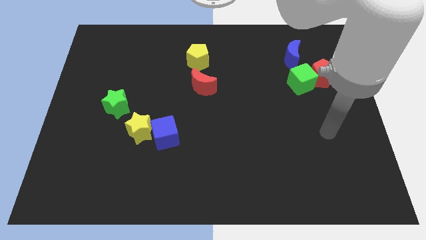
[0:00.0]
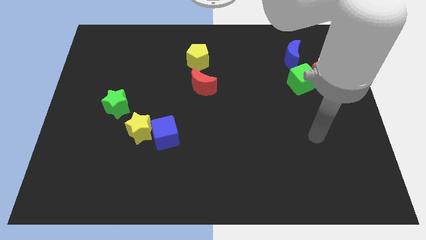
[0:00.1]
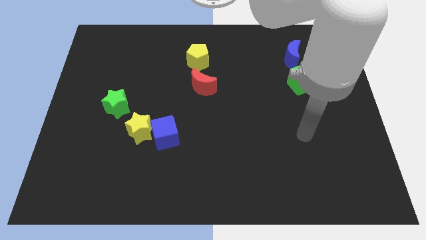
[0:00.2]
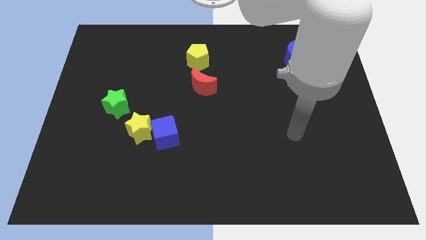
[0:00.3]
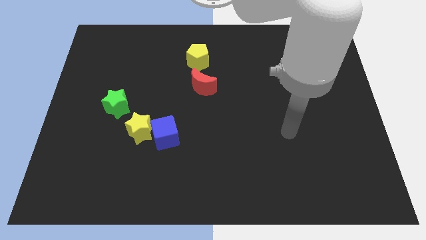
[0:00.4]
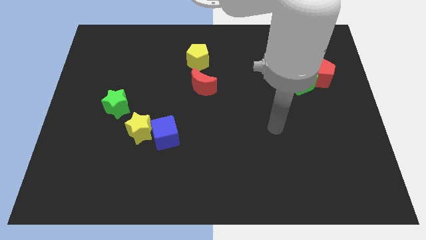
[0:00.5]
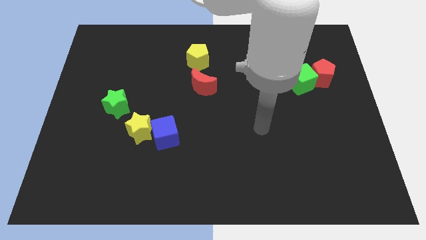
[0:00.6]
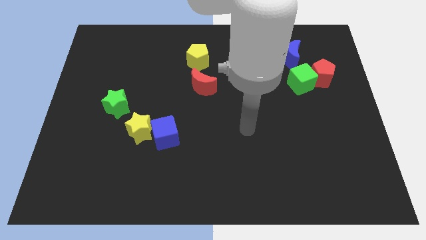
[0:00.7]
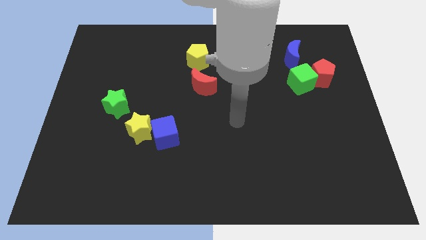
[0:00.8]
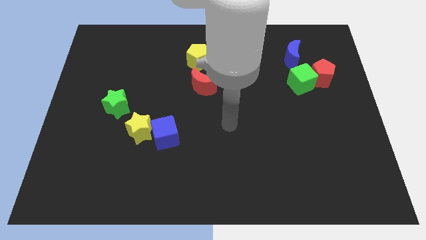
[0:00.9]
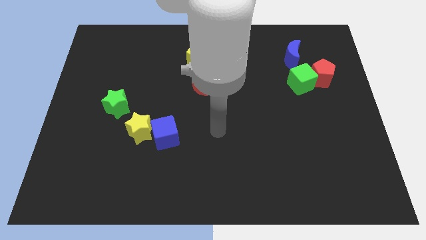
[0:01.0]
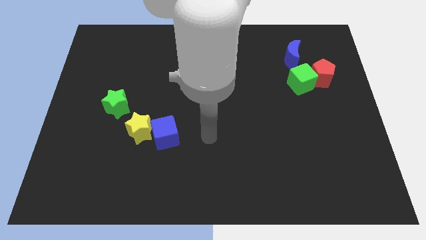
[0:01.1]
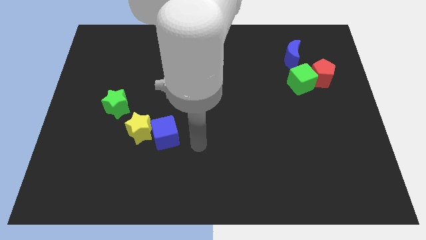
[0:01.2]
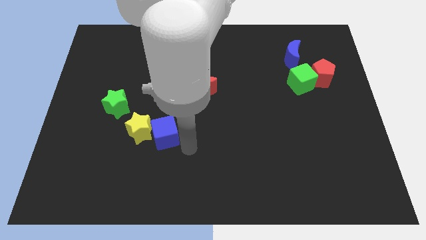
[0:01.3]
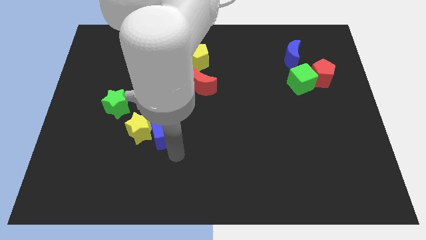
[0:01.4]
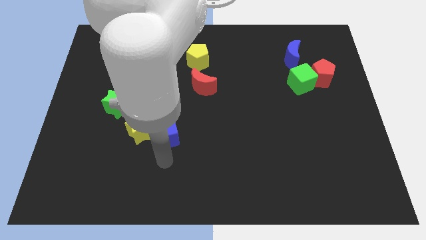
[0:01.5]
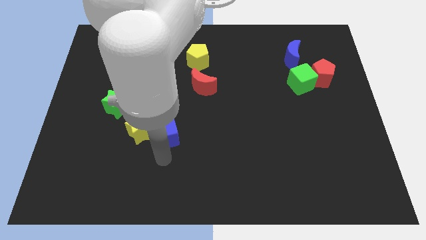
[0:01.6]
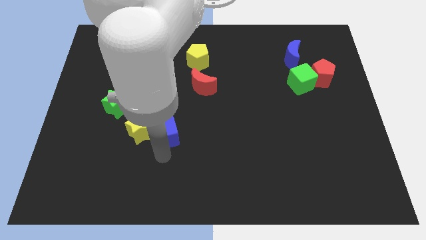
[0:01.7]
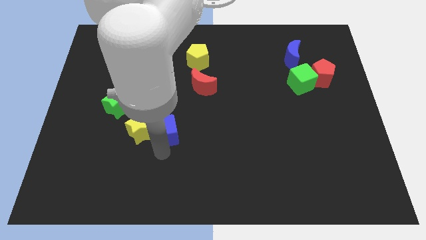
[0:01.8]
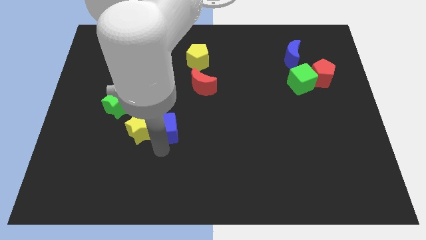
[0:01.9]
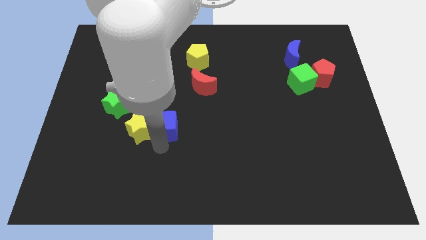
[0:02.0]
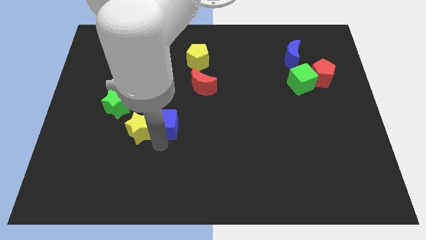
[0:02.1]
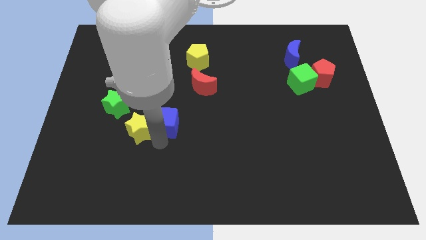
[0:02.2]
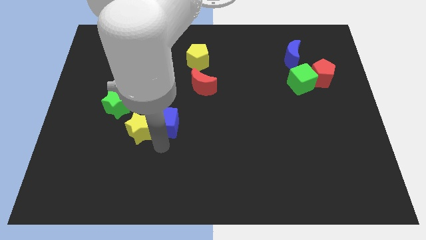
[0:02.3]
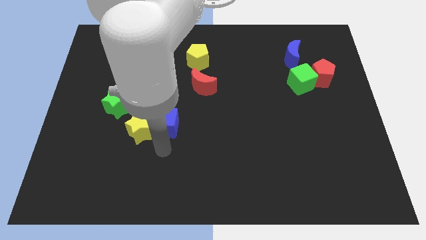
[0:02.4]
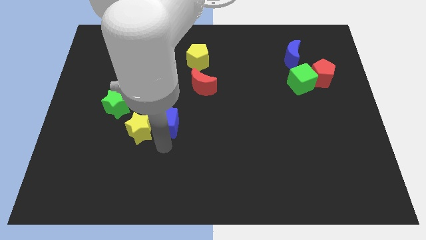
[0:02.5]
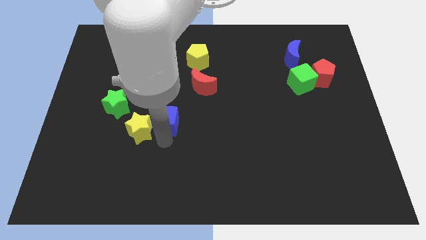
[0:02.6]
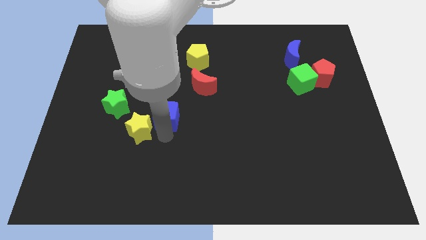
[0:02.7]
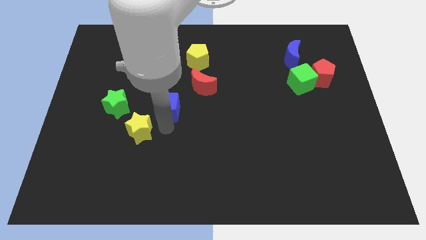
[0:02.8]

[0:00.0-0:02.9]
slightly slide the blue cube upwards

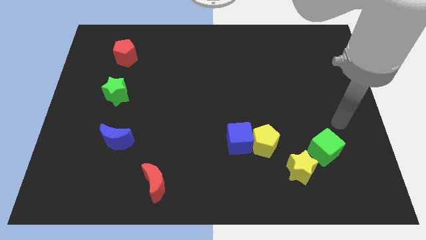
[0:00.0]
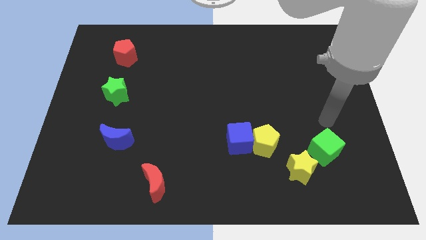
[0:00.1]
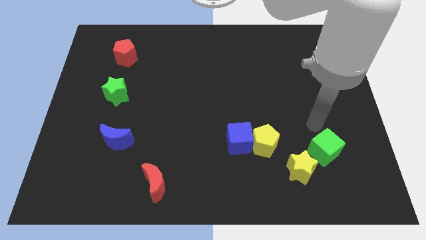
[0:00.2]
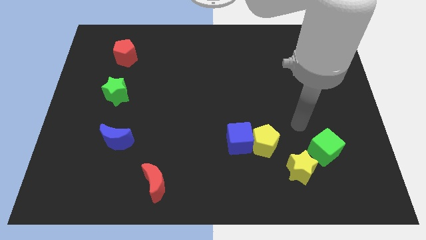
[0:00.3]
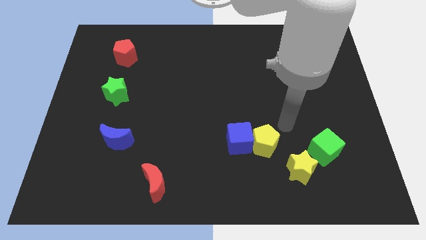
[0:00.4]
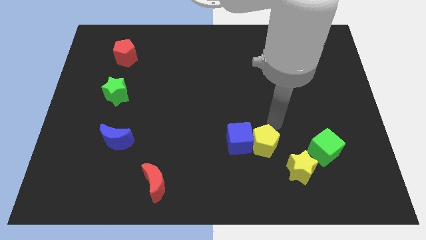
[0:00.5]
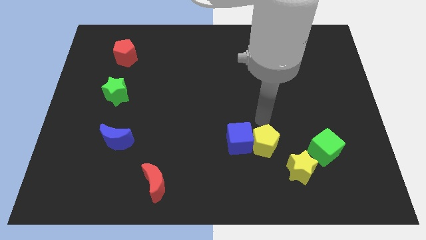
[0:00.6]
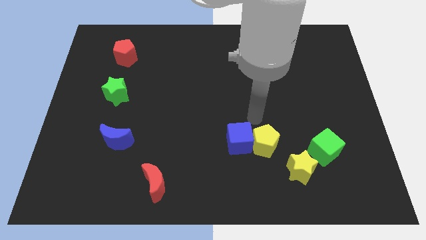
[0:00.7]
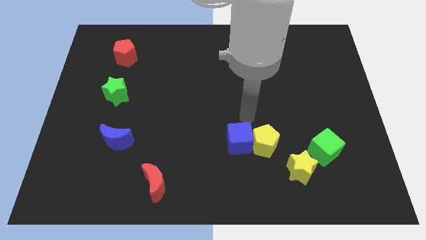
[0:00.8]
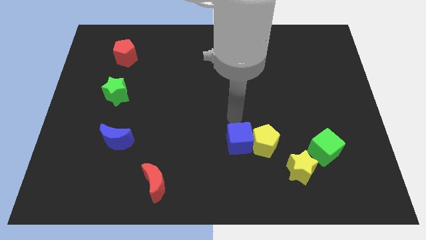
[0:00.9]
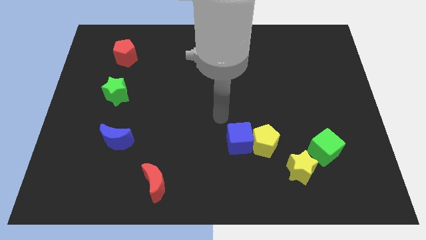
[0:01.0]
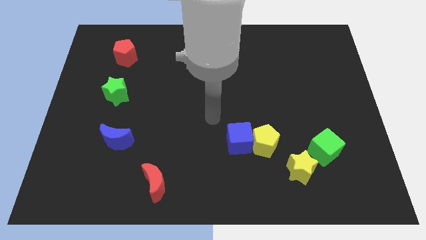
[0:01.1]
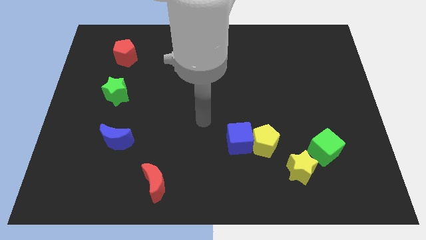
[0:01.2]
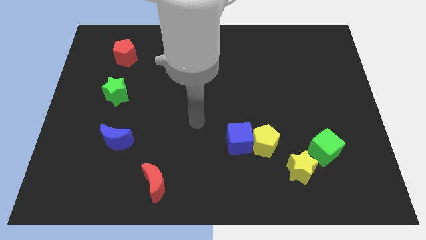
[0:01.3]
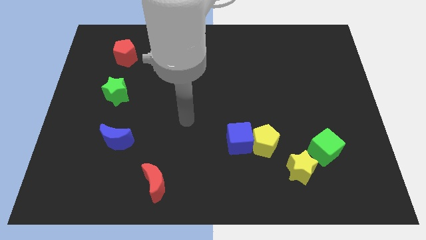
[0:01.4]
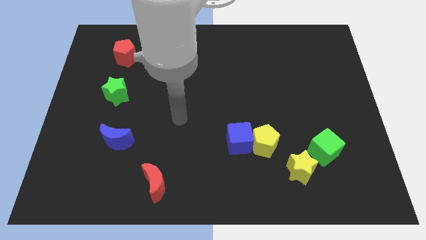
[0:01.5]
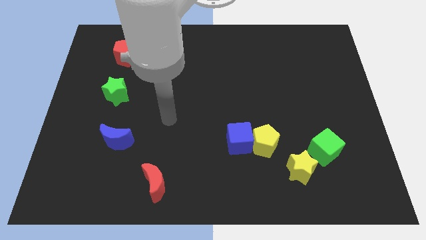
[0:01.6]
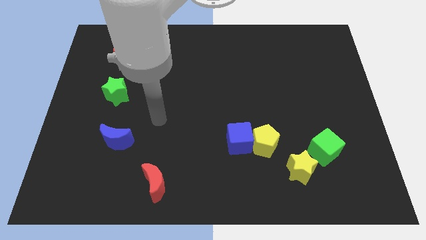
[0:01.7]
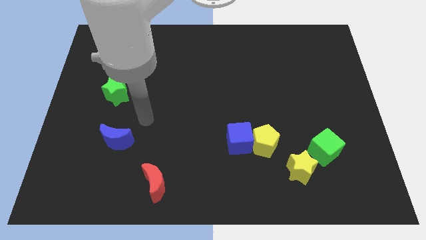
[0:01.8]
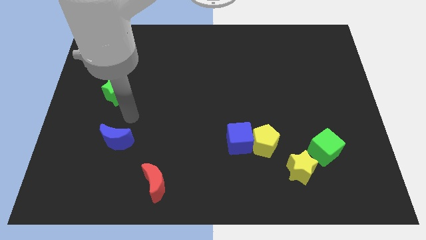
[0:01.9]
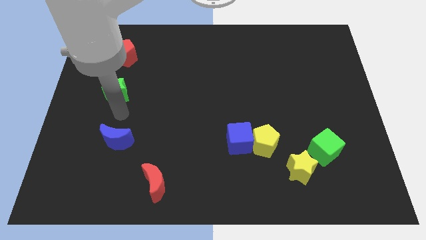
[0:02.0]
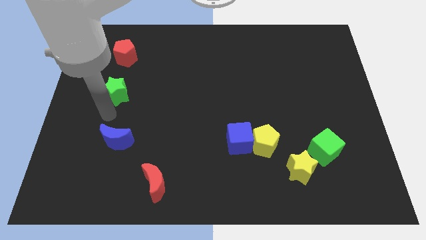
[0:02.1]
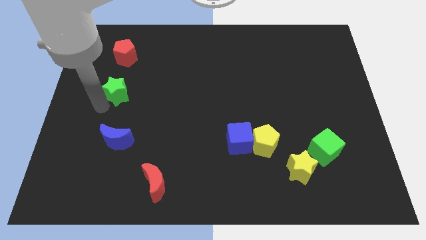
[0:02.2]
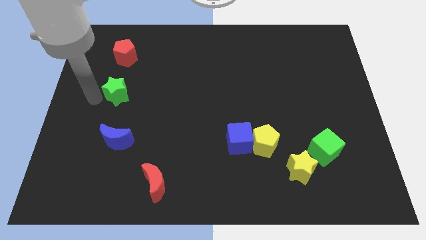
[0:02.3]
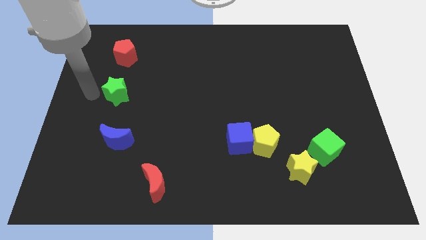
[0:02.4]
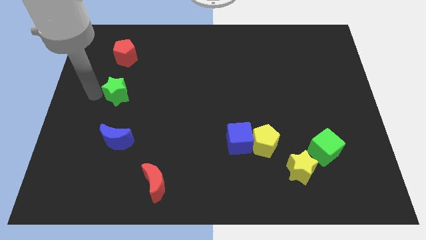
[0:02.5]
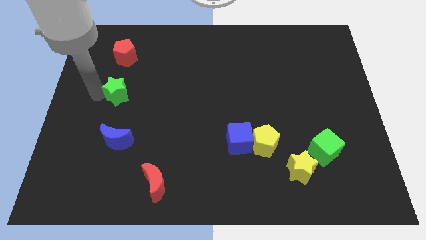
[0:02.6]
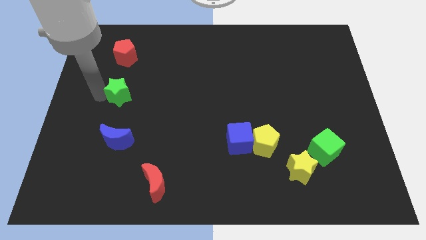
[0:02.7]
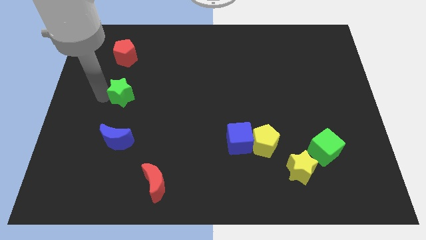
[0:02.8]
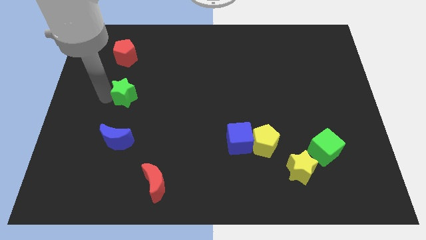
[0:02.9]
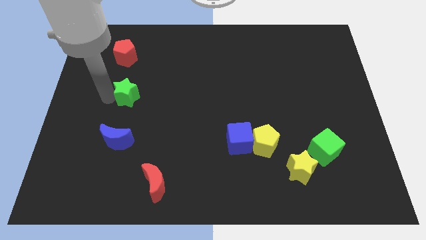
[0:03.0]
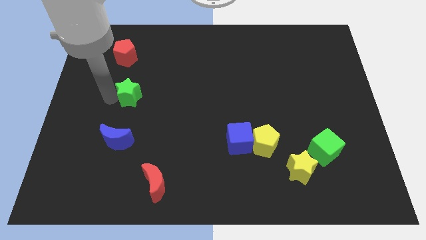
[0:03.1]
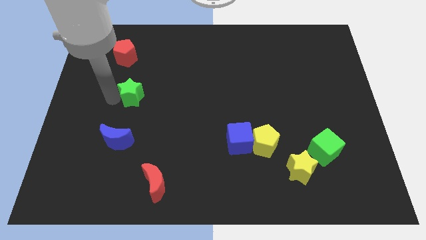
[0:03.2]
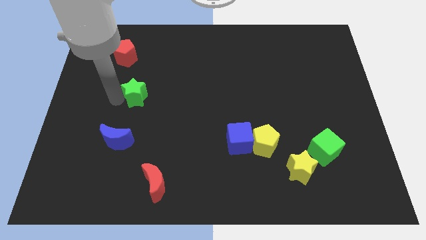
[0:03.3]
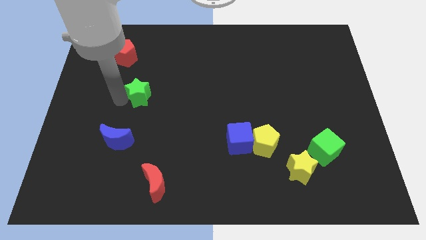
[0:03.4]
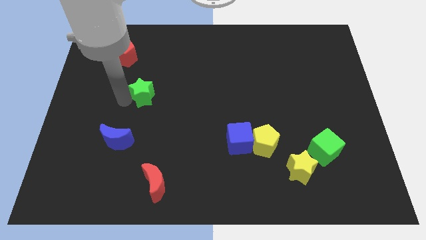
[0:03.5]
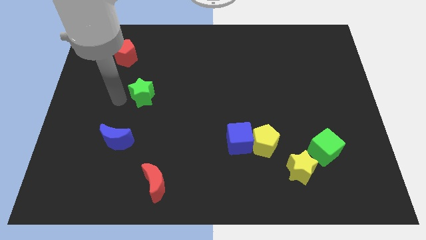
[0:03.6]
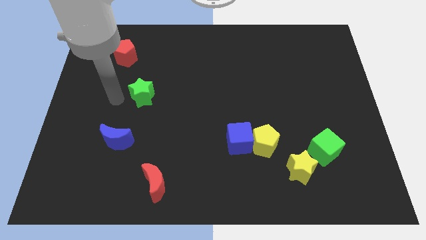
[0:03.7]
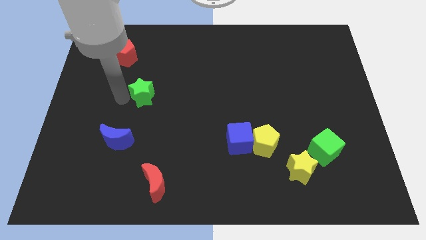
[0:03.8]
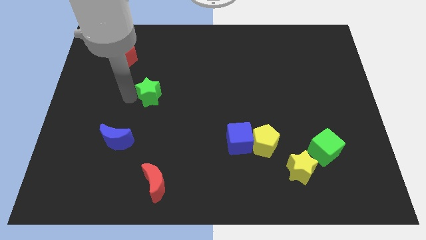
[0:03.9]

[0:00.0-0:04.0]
slightly push the green star to the right

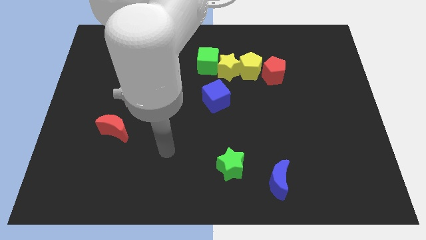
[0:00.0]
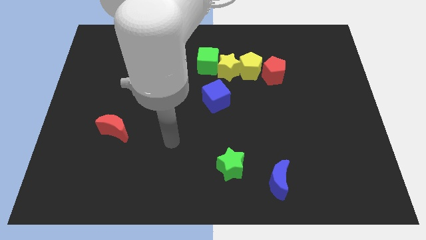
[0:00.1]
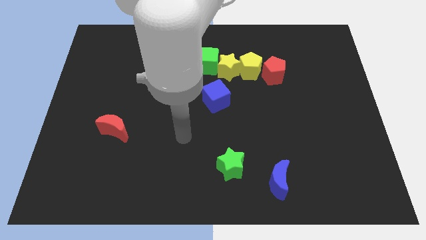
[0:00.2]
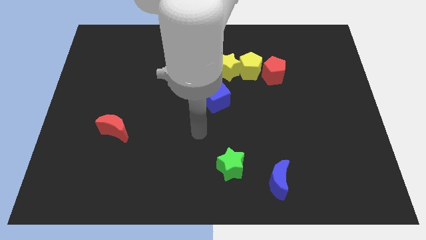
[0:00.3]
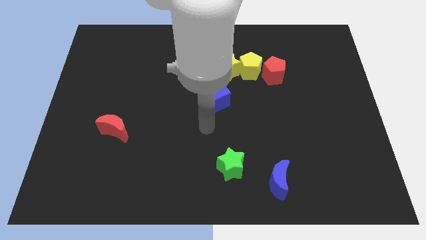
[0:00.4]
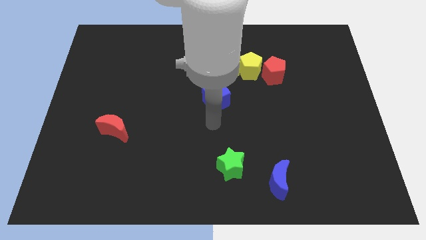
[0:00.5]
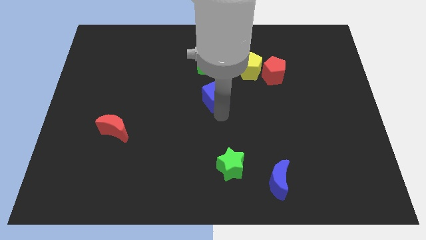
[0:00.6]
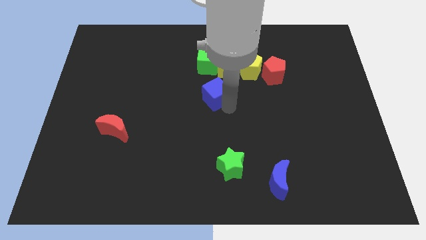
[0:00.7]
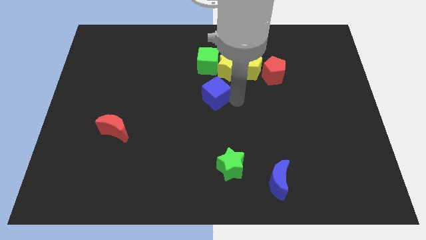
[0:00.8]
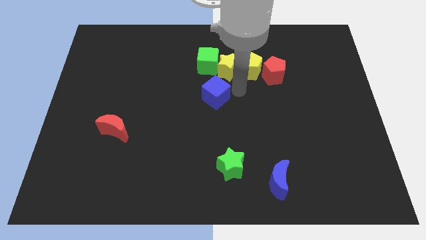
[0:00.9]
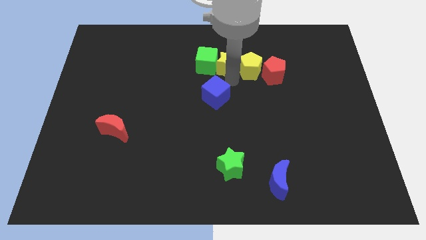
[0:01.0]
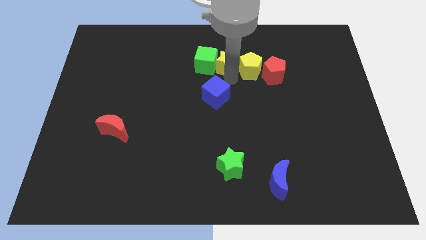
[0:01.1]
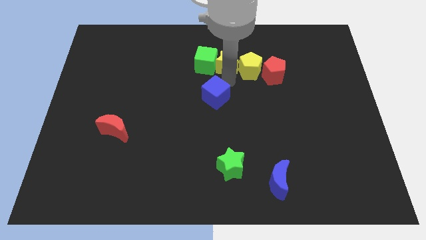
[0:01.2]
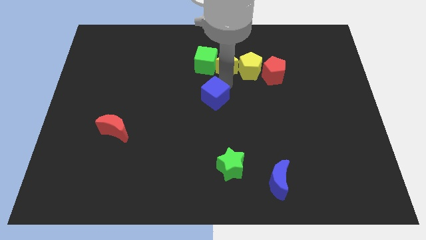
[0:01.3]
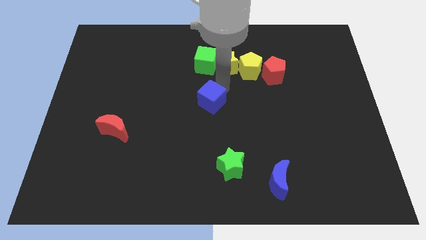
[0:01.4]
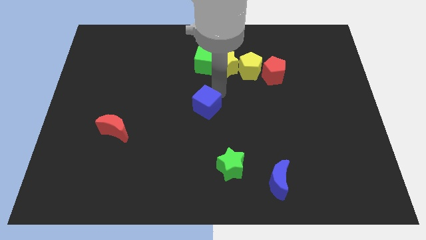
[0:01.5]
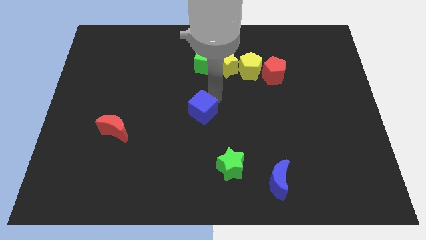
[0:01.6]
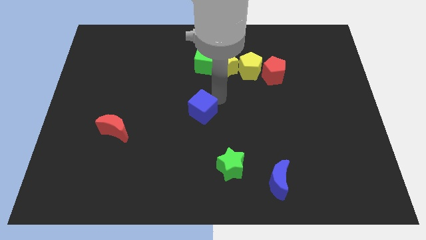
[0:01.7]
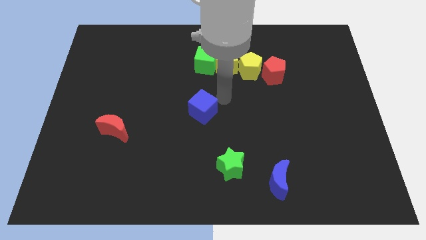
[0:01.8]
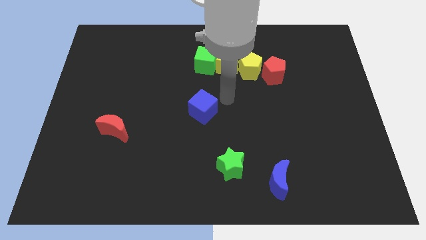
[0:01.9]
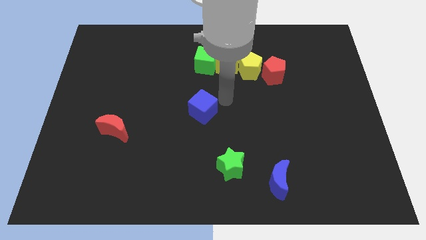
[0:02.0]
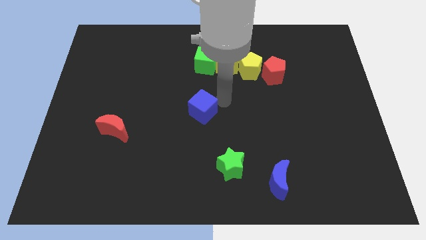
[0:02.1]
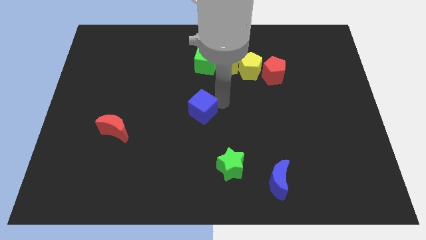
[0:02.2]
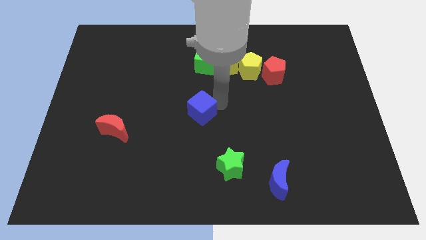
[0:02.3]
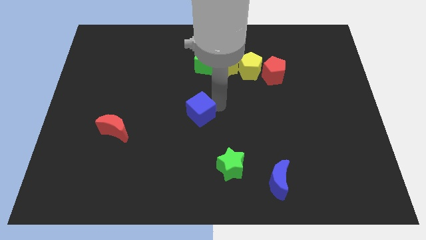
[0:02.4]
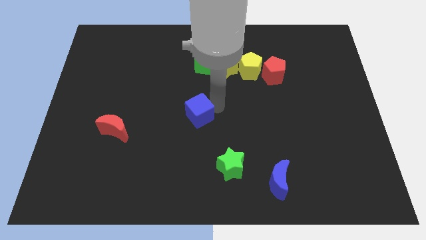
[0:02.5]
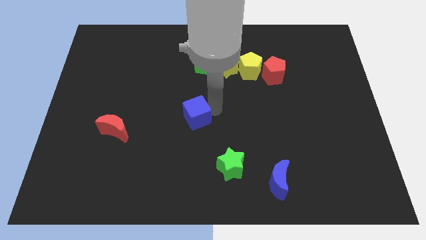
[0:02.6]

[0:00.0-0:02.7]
push the blue cube down and then left a bit
